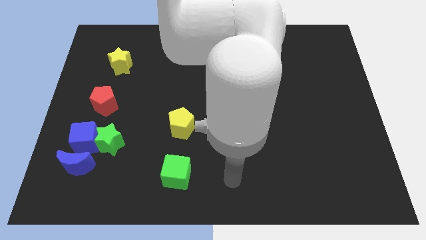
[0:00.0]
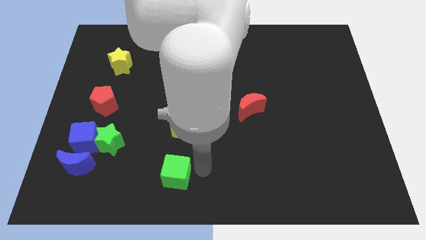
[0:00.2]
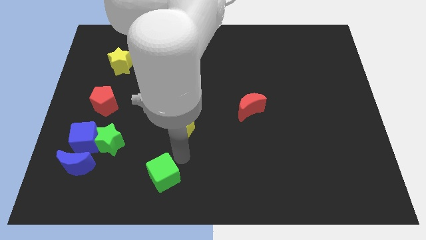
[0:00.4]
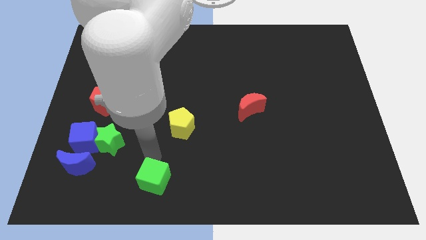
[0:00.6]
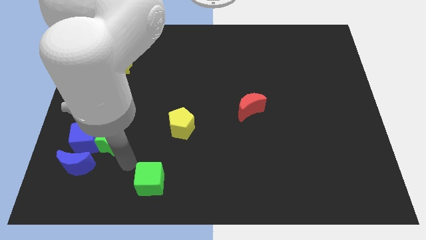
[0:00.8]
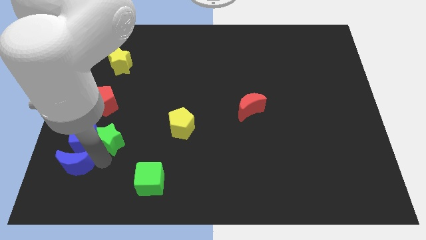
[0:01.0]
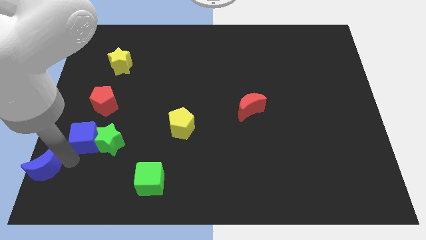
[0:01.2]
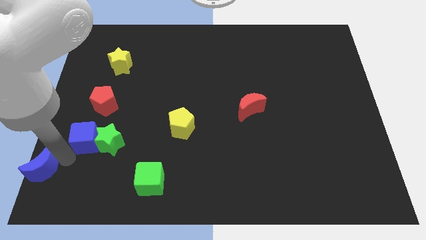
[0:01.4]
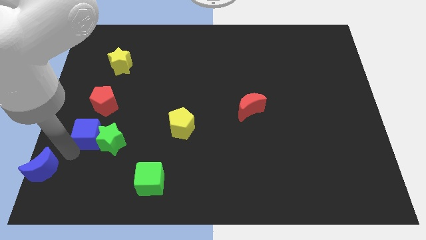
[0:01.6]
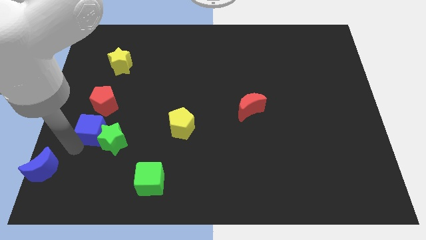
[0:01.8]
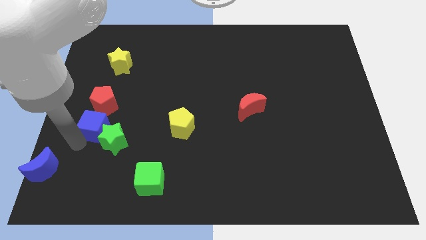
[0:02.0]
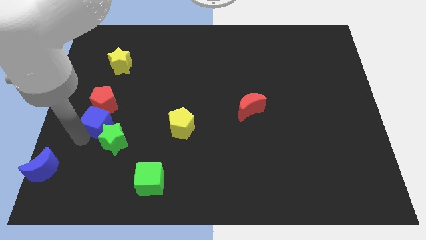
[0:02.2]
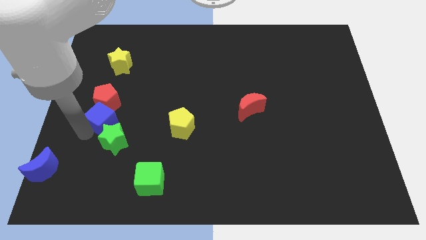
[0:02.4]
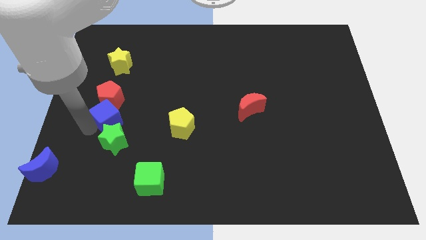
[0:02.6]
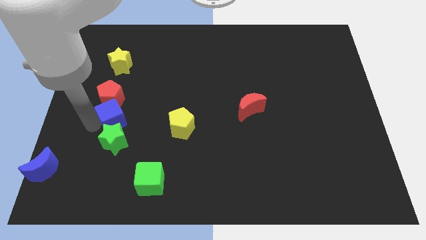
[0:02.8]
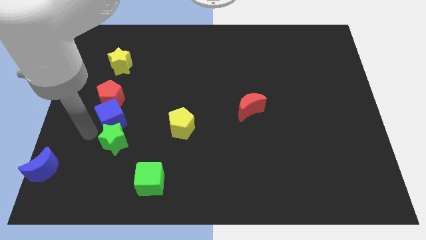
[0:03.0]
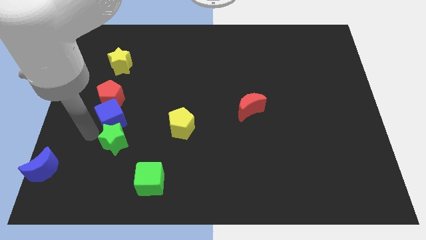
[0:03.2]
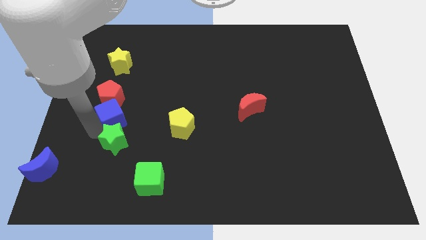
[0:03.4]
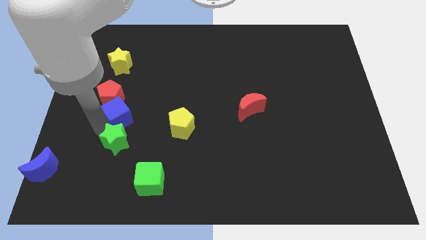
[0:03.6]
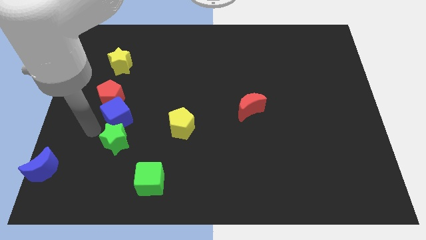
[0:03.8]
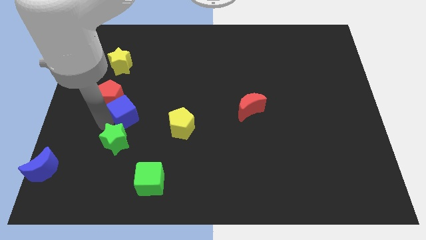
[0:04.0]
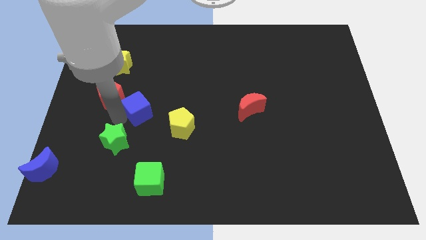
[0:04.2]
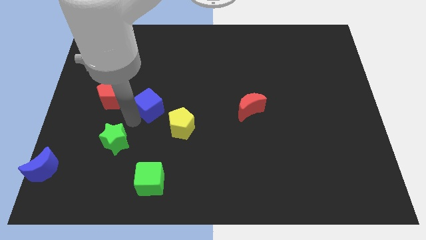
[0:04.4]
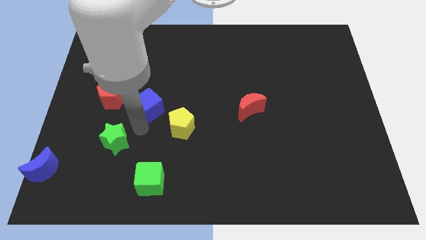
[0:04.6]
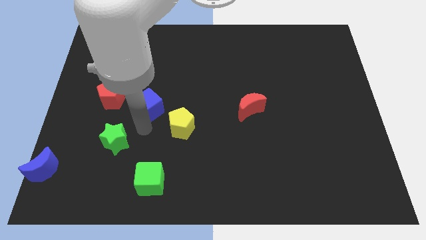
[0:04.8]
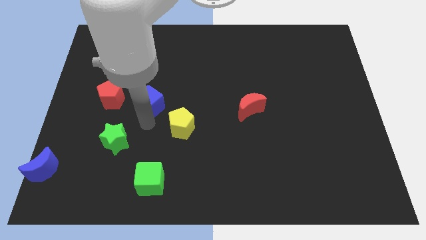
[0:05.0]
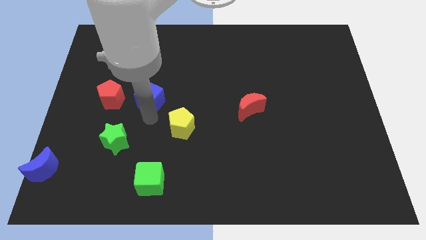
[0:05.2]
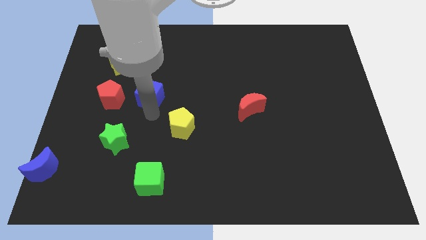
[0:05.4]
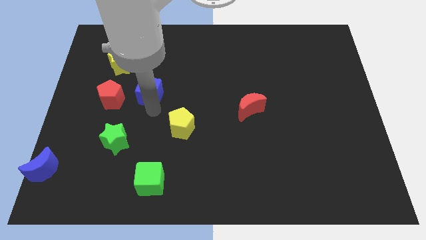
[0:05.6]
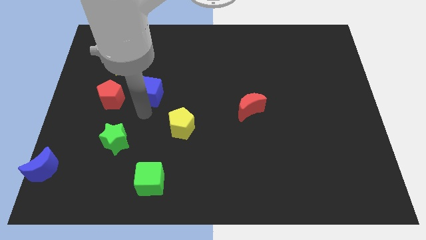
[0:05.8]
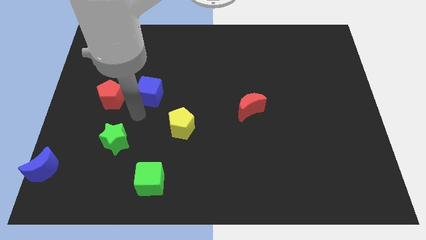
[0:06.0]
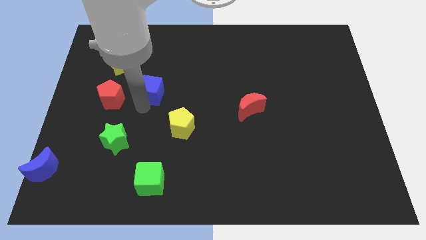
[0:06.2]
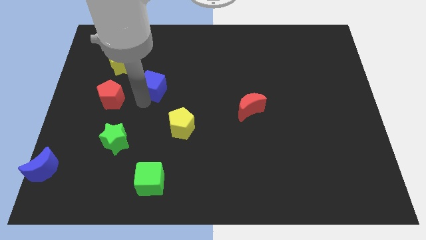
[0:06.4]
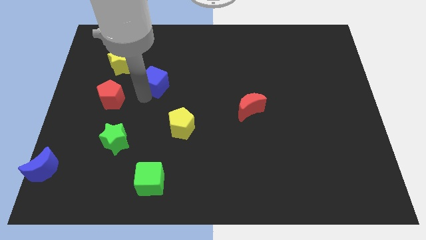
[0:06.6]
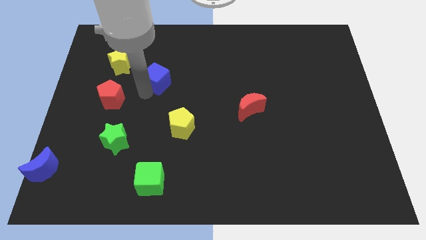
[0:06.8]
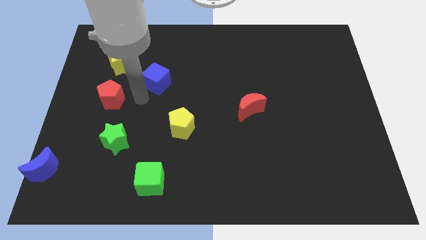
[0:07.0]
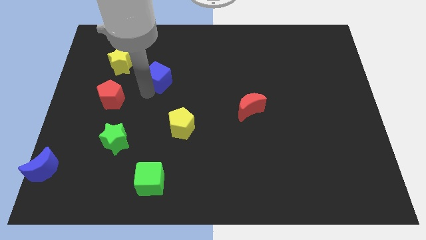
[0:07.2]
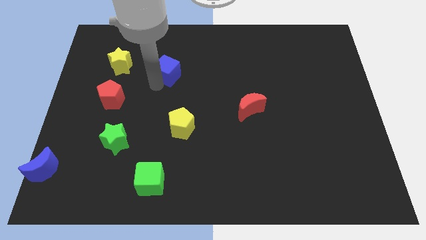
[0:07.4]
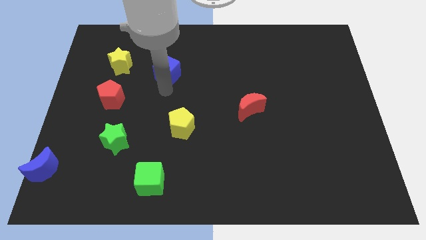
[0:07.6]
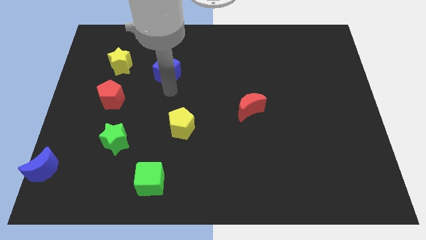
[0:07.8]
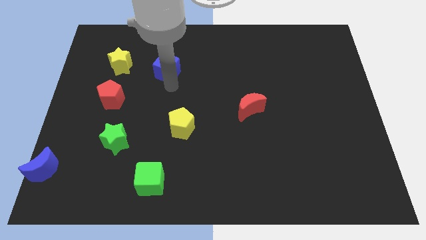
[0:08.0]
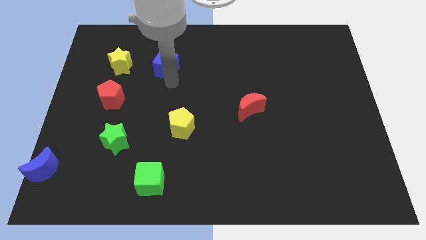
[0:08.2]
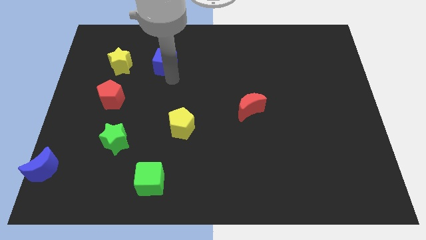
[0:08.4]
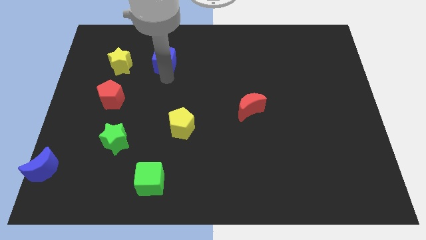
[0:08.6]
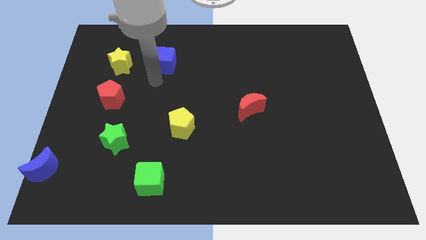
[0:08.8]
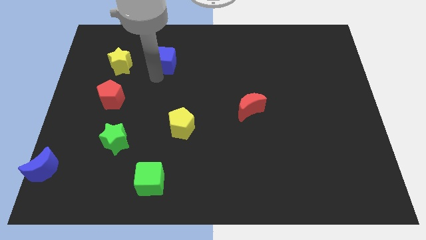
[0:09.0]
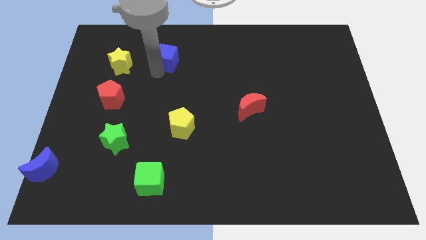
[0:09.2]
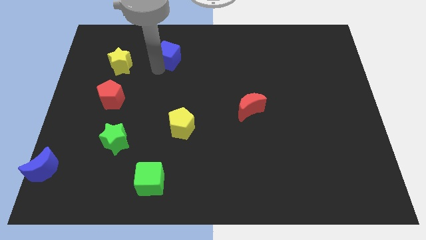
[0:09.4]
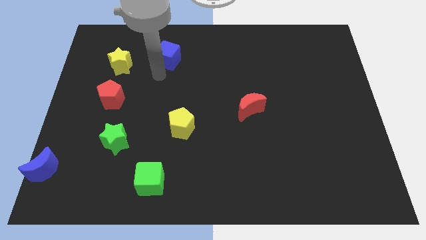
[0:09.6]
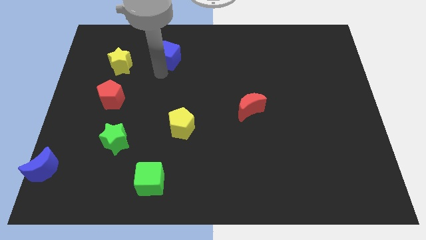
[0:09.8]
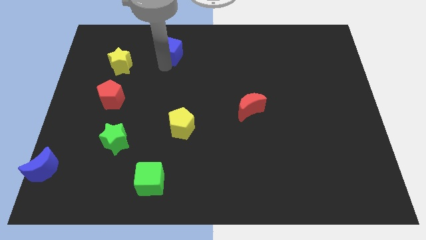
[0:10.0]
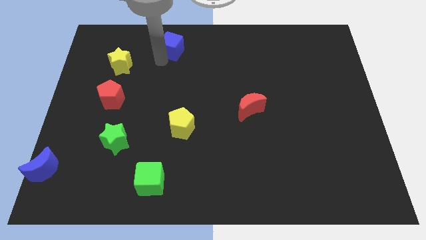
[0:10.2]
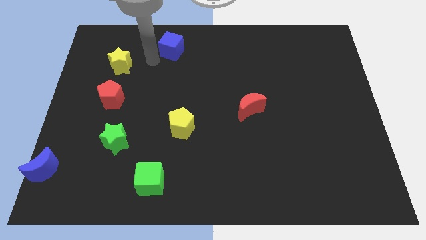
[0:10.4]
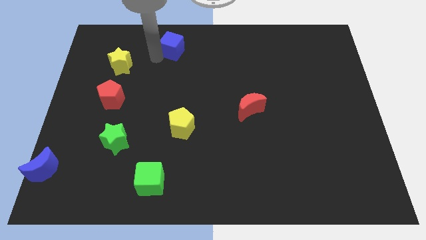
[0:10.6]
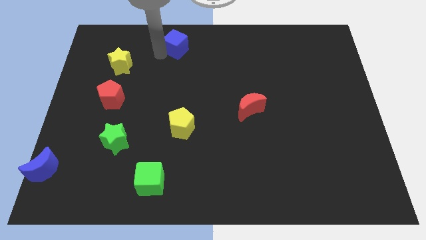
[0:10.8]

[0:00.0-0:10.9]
push the blue cube to the top

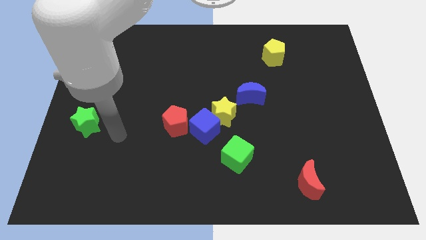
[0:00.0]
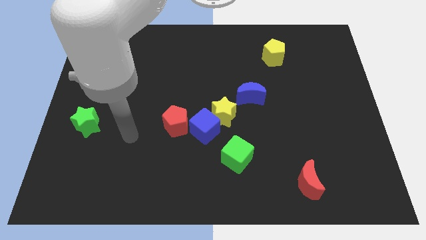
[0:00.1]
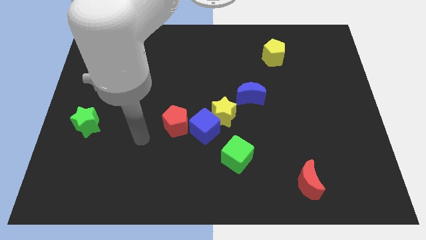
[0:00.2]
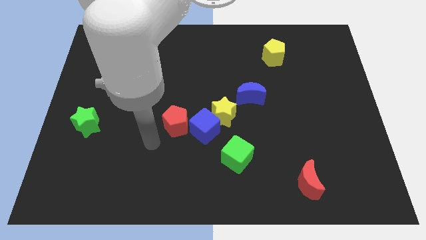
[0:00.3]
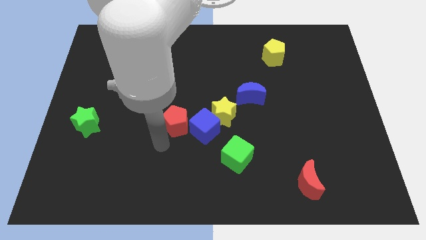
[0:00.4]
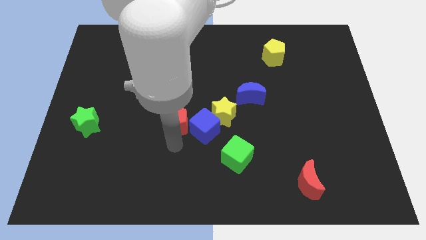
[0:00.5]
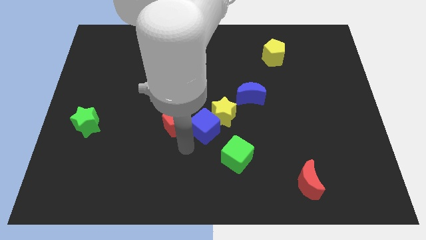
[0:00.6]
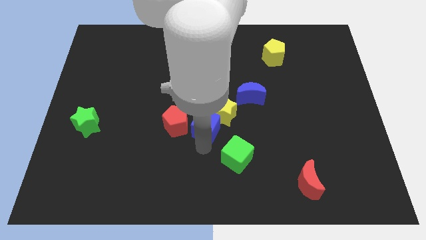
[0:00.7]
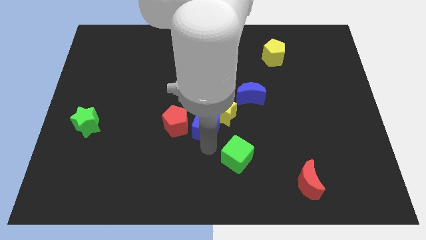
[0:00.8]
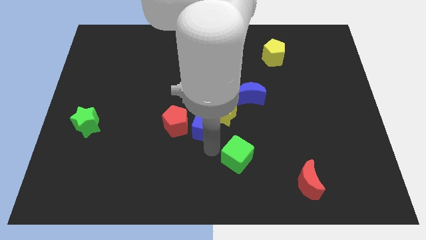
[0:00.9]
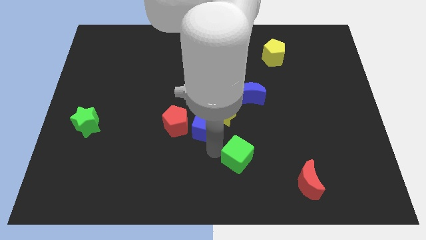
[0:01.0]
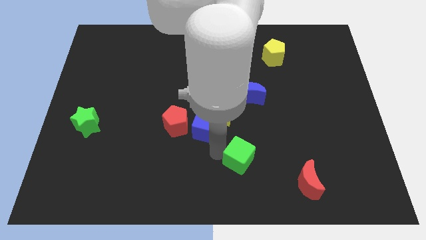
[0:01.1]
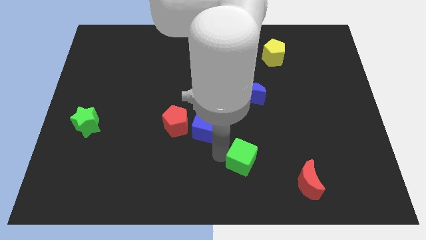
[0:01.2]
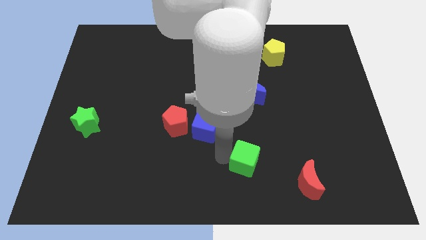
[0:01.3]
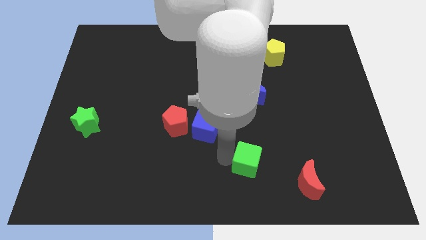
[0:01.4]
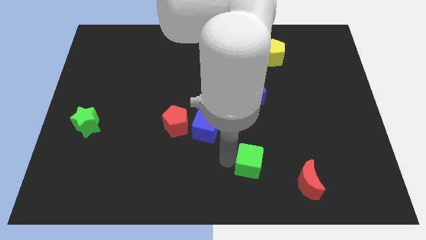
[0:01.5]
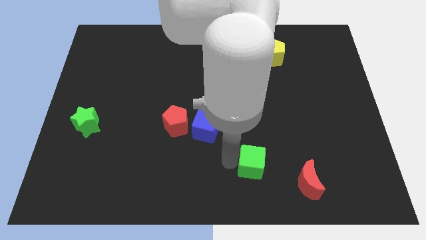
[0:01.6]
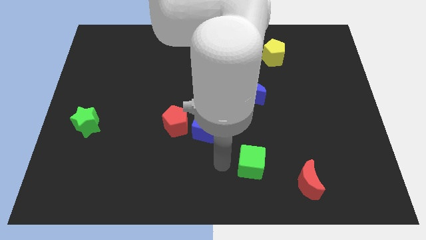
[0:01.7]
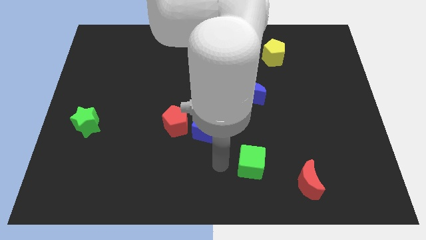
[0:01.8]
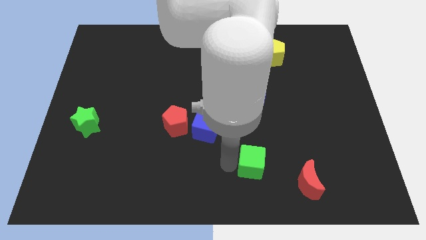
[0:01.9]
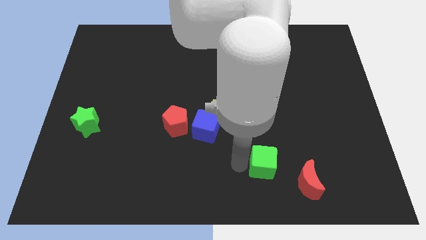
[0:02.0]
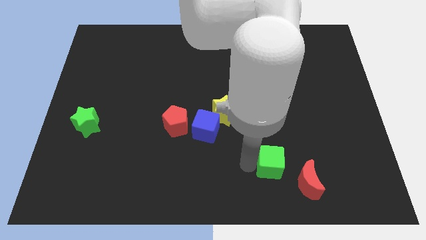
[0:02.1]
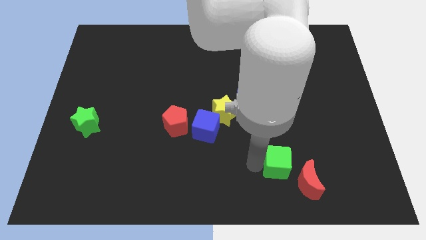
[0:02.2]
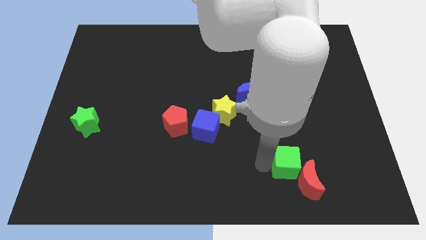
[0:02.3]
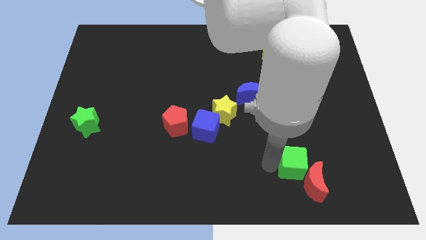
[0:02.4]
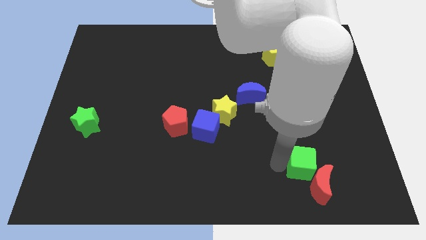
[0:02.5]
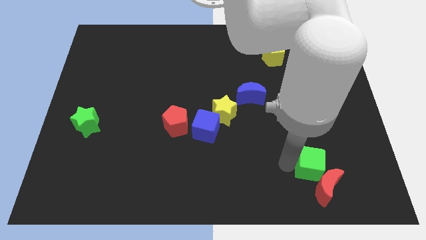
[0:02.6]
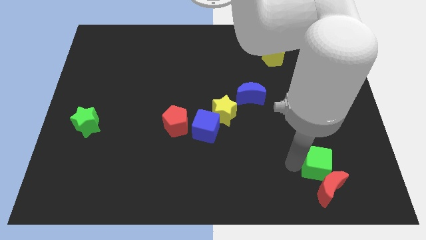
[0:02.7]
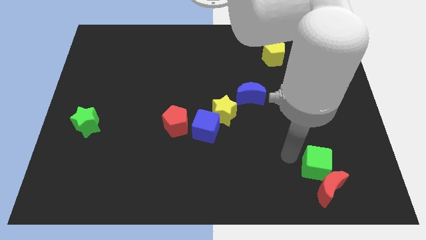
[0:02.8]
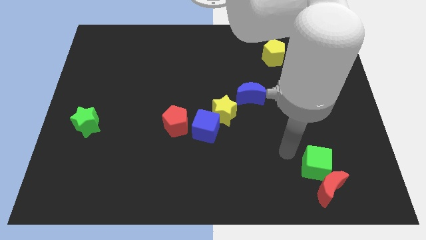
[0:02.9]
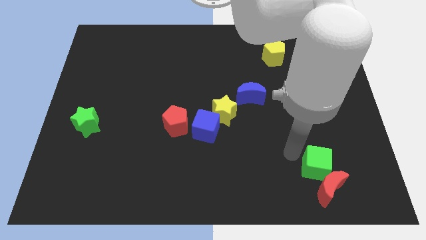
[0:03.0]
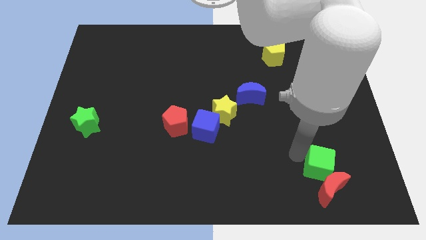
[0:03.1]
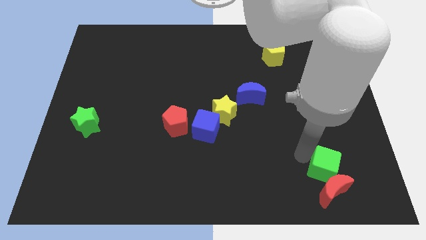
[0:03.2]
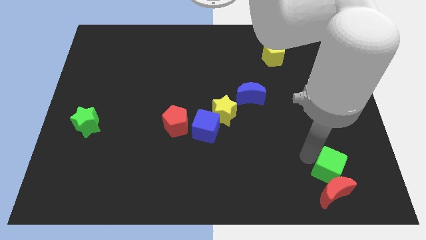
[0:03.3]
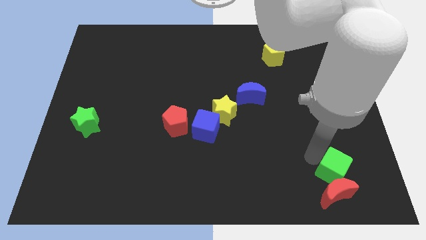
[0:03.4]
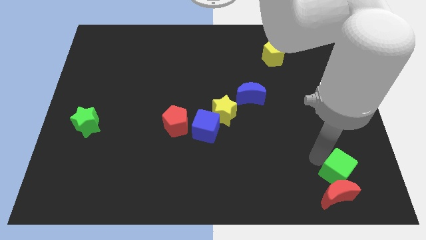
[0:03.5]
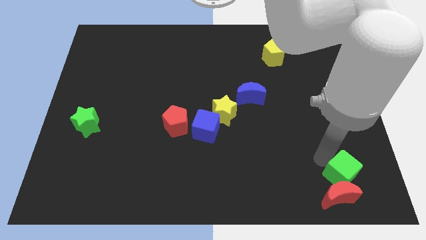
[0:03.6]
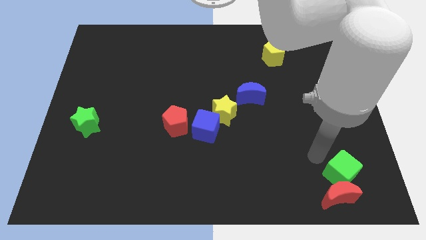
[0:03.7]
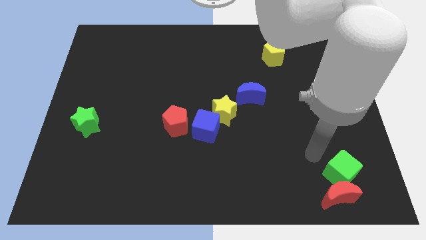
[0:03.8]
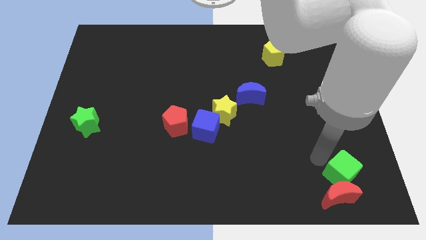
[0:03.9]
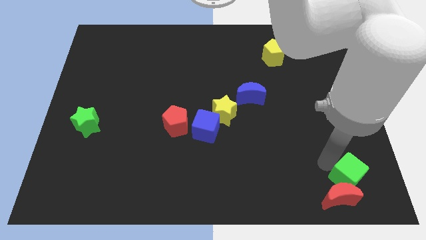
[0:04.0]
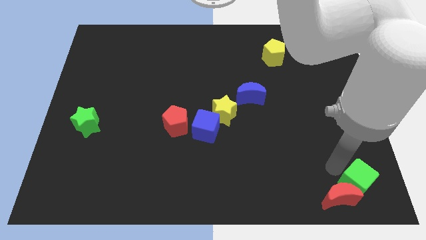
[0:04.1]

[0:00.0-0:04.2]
put the green cube to the lower right corner
